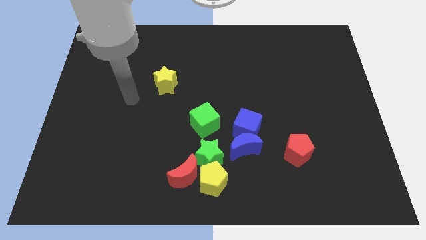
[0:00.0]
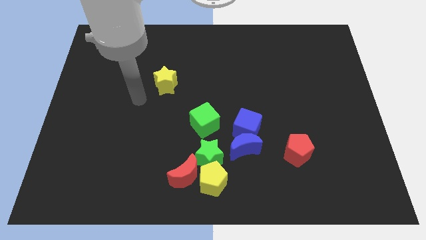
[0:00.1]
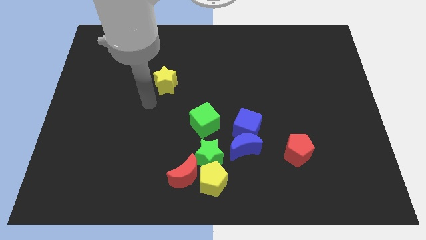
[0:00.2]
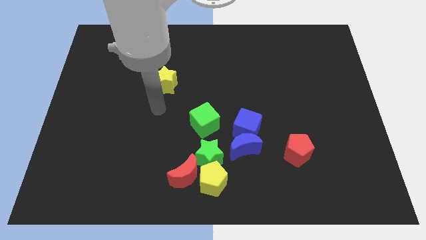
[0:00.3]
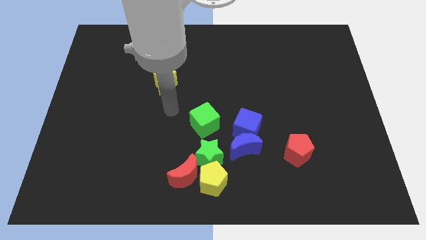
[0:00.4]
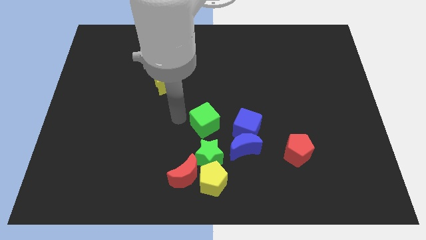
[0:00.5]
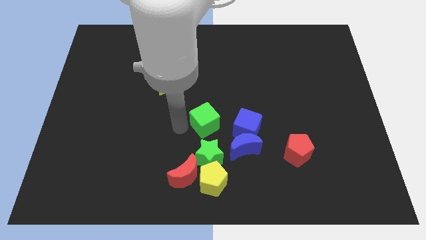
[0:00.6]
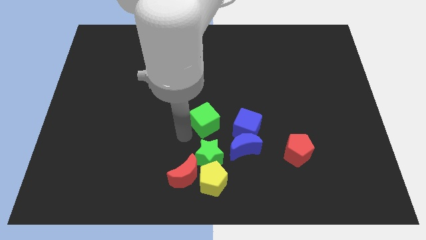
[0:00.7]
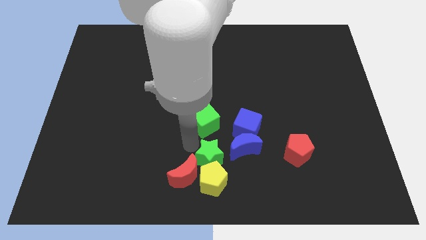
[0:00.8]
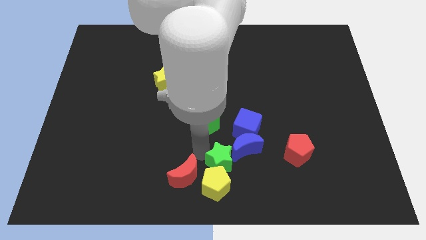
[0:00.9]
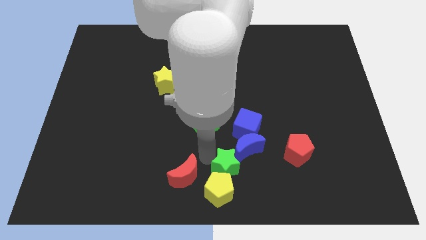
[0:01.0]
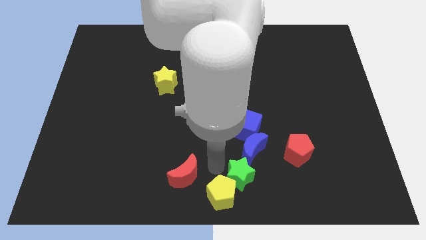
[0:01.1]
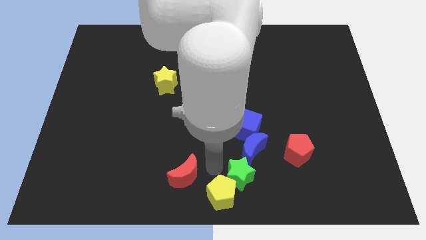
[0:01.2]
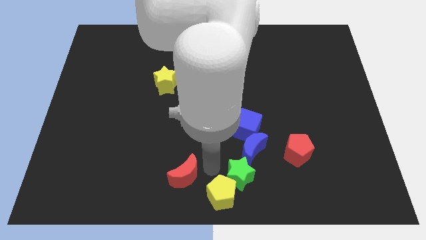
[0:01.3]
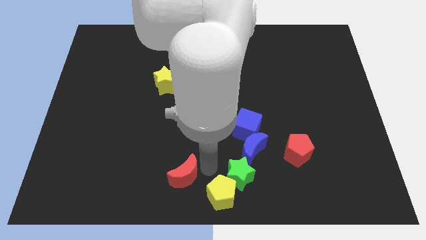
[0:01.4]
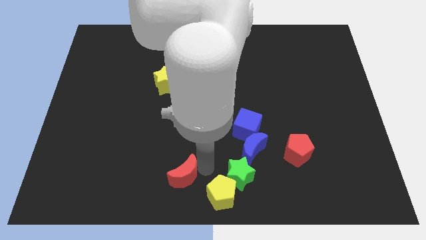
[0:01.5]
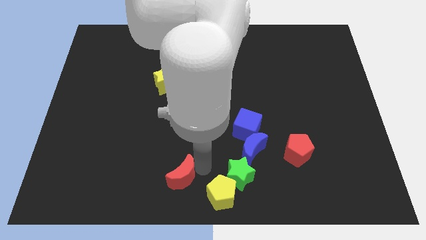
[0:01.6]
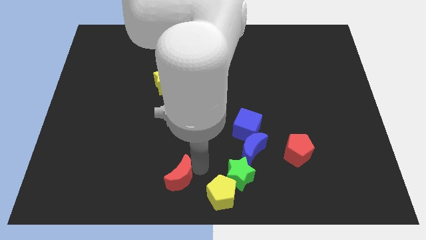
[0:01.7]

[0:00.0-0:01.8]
separate the red moon from the yellow pentagon and green star

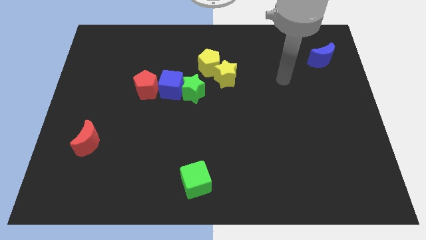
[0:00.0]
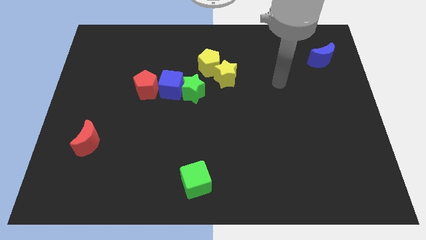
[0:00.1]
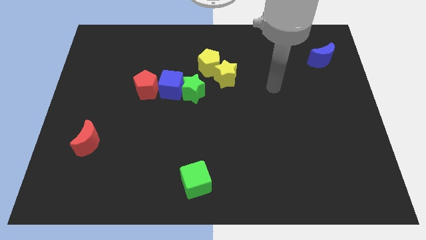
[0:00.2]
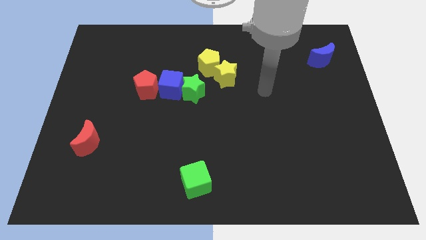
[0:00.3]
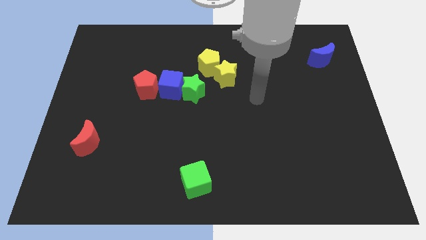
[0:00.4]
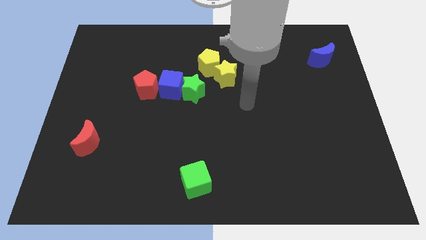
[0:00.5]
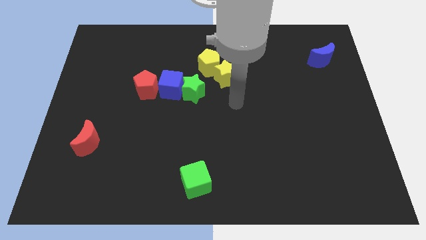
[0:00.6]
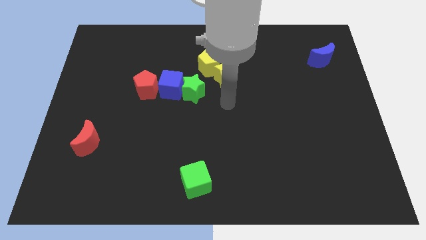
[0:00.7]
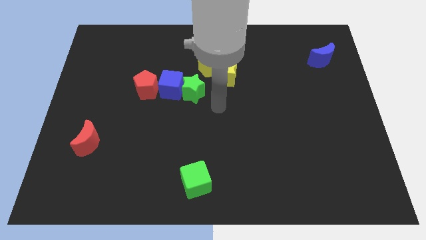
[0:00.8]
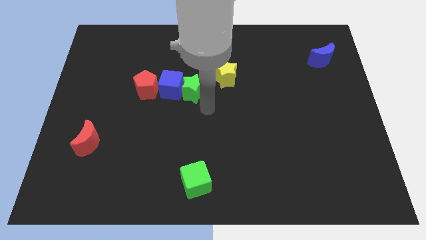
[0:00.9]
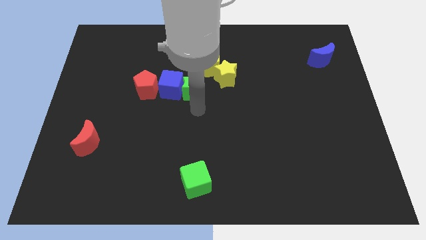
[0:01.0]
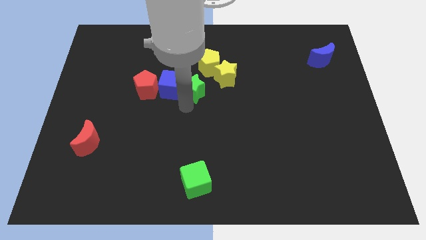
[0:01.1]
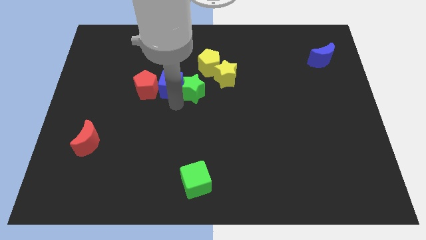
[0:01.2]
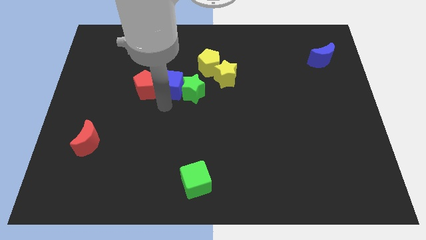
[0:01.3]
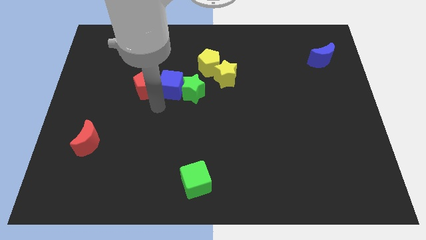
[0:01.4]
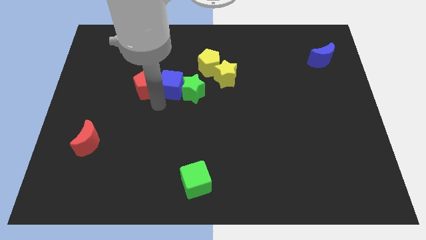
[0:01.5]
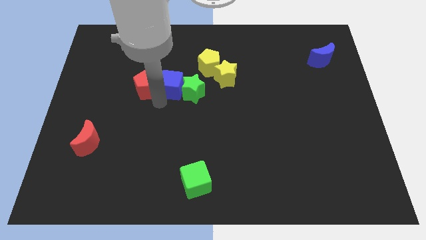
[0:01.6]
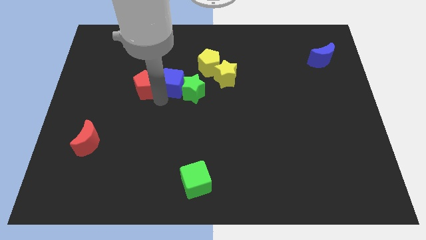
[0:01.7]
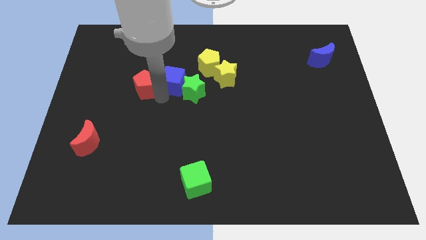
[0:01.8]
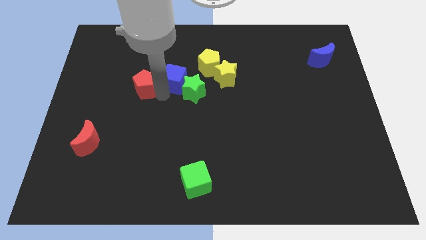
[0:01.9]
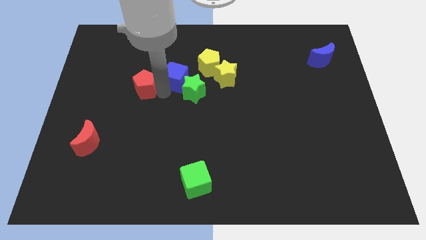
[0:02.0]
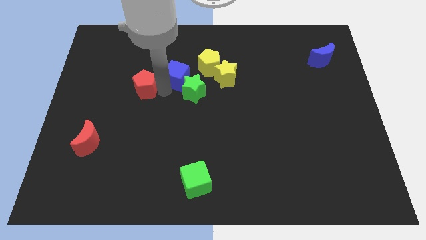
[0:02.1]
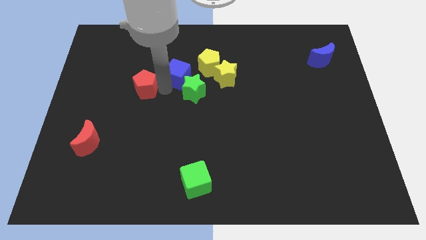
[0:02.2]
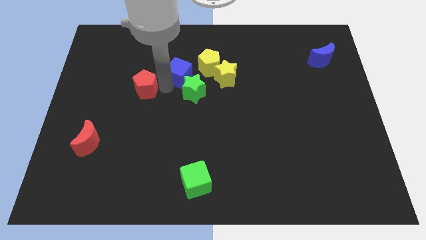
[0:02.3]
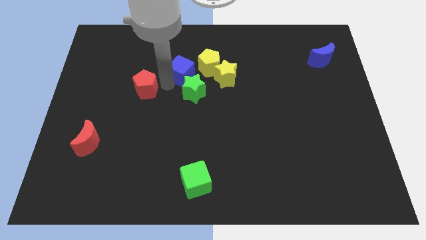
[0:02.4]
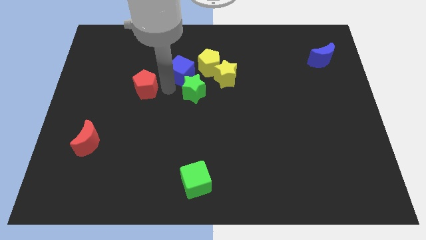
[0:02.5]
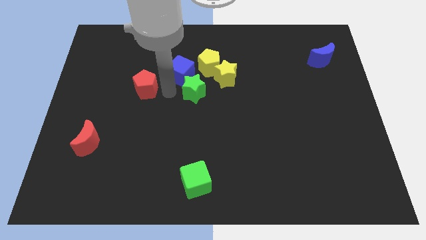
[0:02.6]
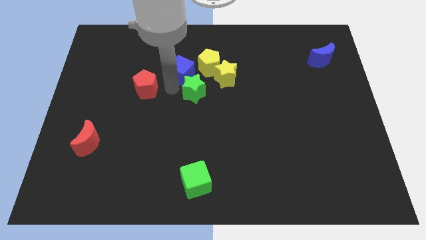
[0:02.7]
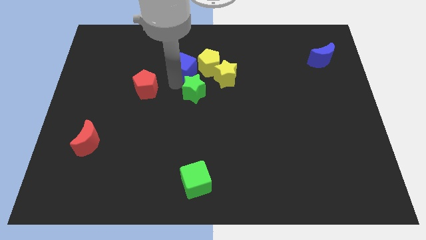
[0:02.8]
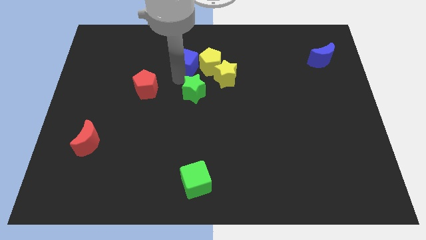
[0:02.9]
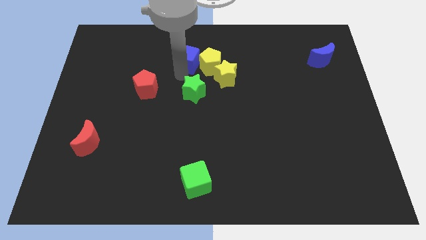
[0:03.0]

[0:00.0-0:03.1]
separate the blue cube from the green star and red pentagon

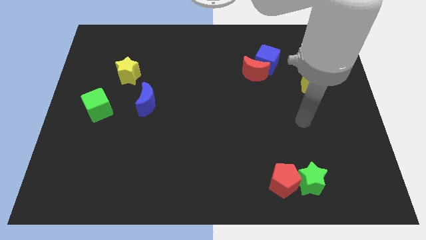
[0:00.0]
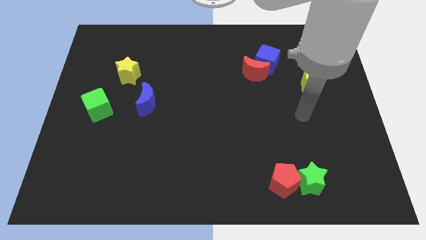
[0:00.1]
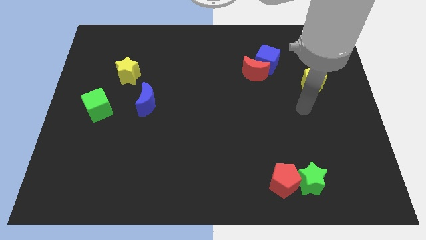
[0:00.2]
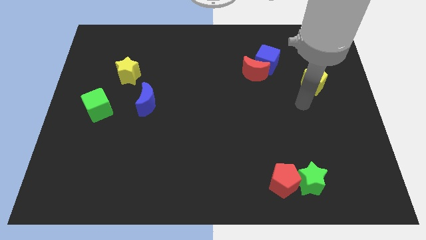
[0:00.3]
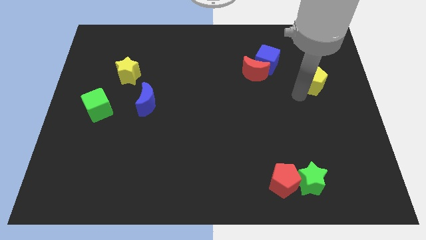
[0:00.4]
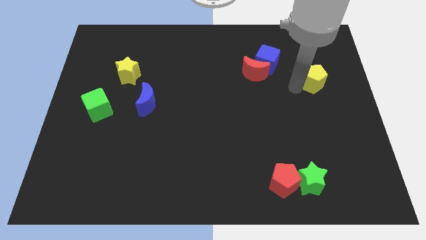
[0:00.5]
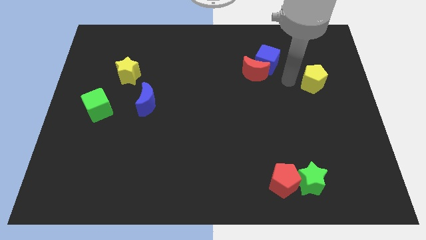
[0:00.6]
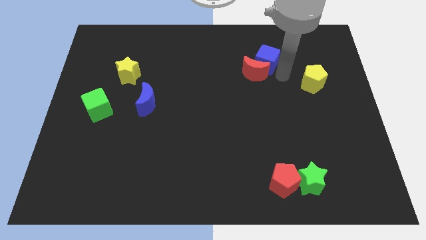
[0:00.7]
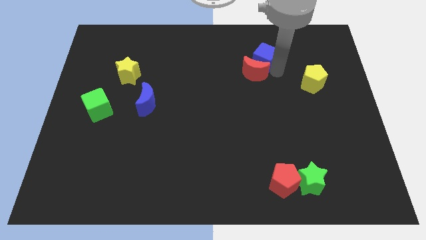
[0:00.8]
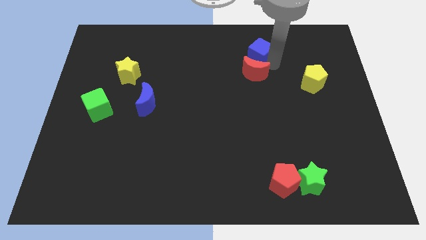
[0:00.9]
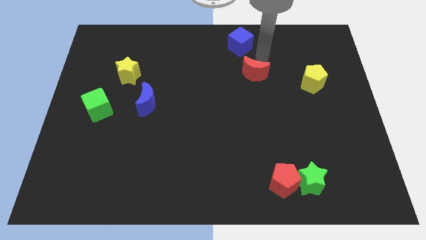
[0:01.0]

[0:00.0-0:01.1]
move the red moon away from the blue cube

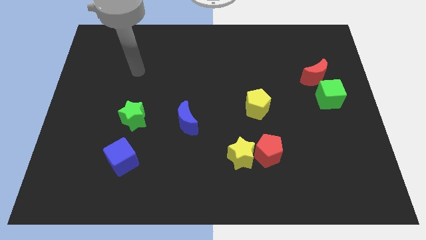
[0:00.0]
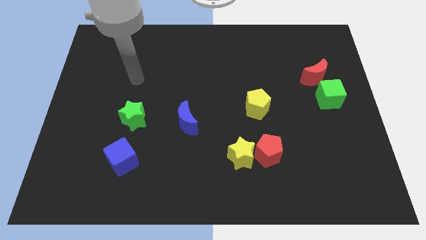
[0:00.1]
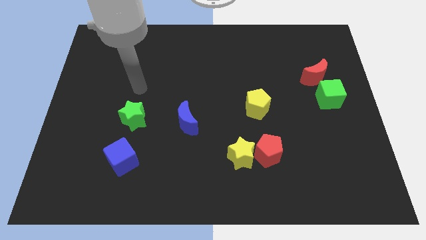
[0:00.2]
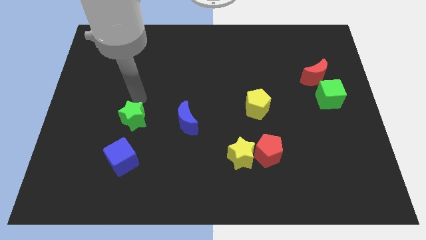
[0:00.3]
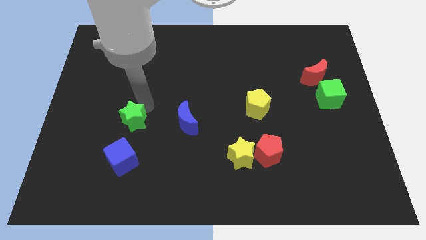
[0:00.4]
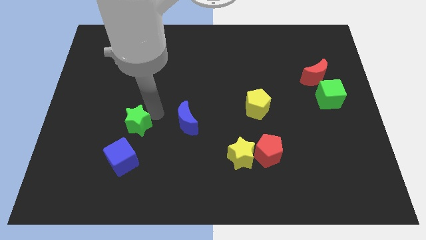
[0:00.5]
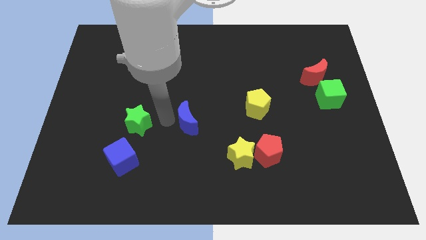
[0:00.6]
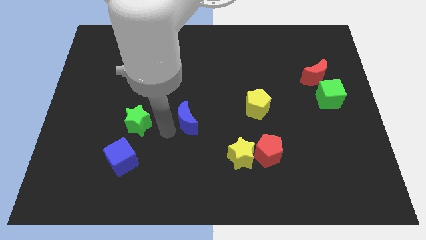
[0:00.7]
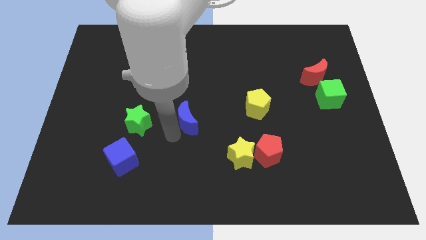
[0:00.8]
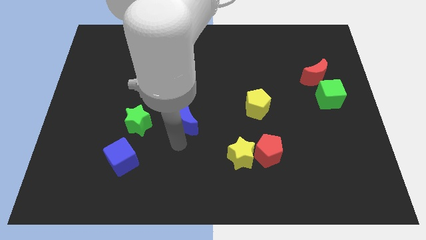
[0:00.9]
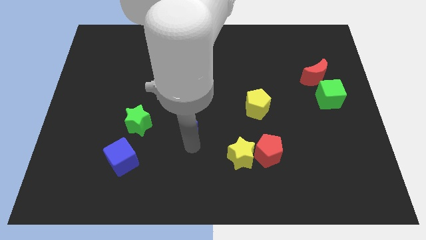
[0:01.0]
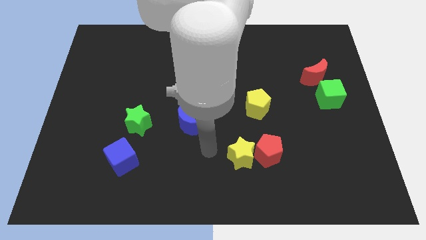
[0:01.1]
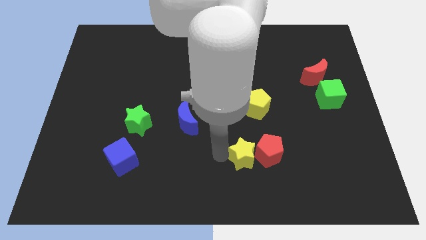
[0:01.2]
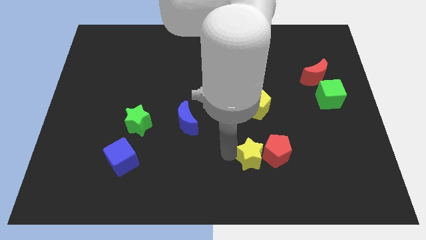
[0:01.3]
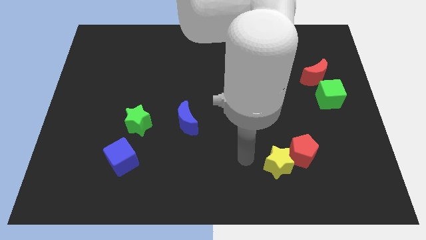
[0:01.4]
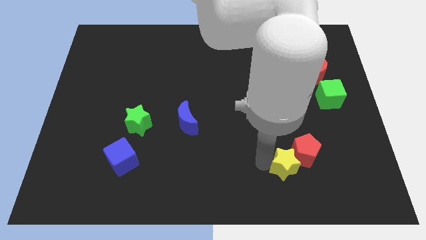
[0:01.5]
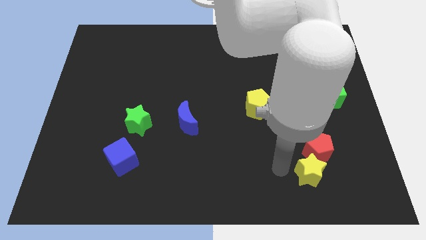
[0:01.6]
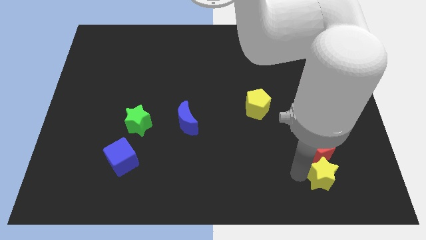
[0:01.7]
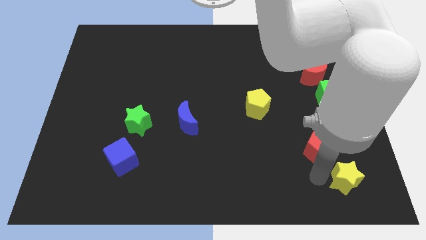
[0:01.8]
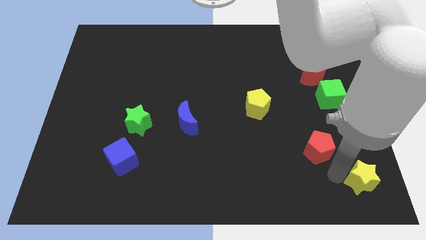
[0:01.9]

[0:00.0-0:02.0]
pull the red pentagon apart from the yellow star

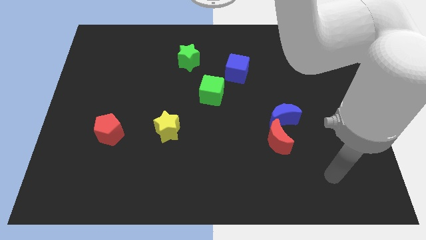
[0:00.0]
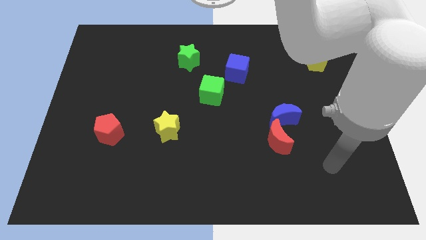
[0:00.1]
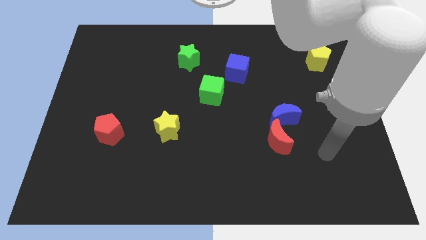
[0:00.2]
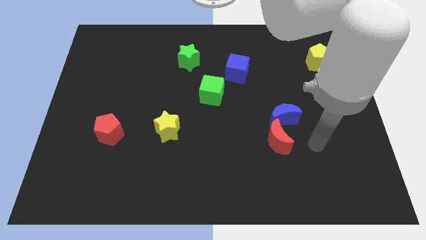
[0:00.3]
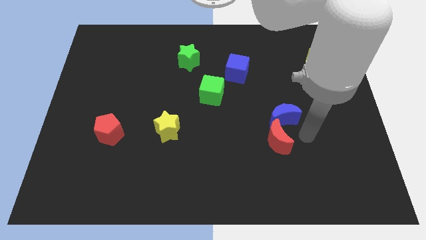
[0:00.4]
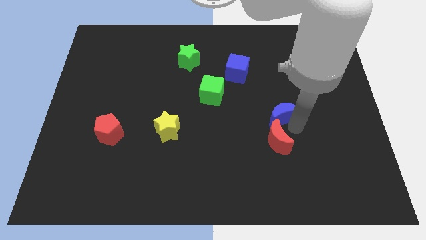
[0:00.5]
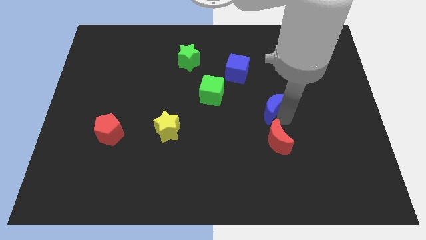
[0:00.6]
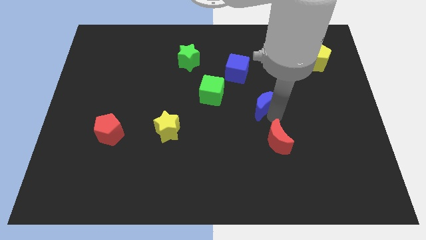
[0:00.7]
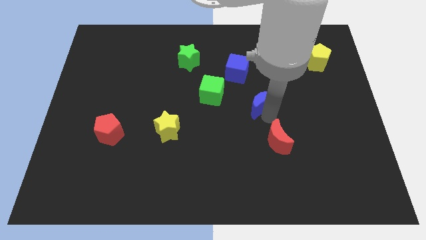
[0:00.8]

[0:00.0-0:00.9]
move the red moon away from the blue moon

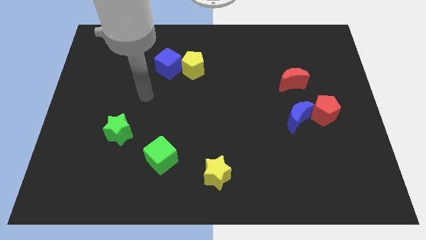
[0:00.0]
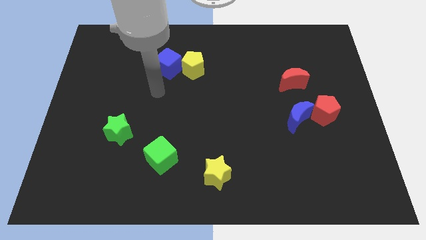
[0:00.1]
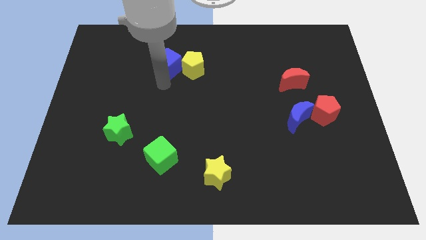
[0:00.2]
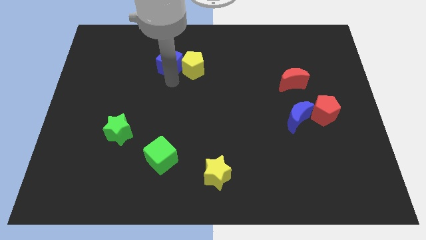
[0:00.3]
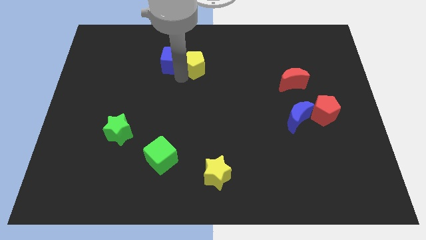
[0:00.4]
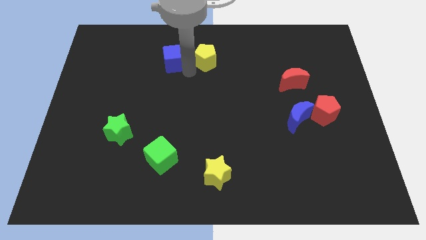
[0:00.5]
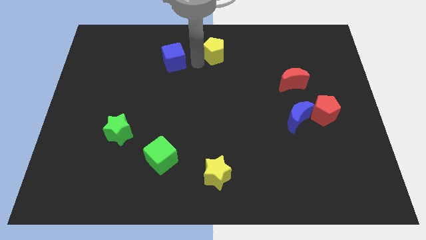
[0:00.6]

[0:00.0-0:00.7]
move the blue cube away from the yellow pentagon
